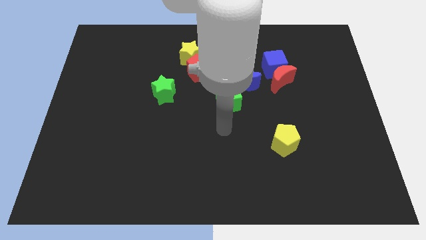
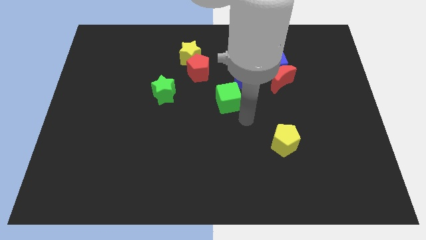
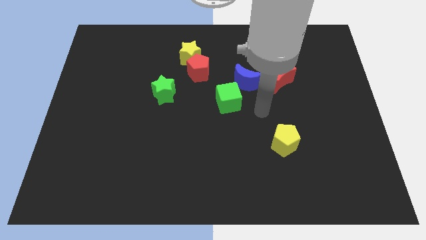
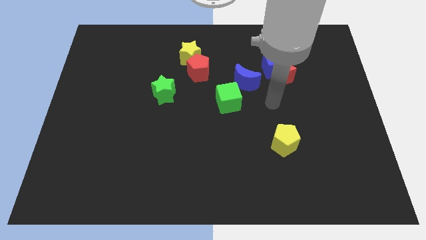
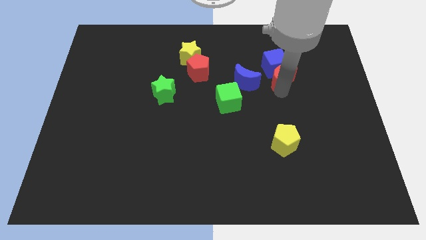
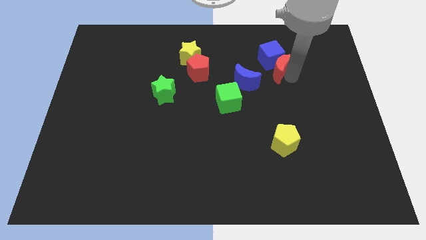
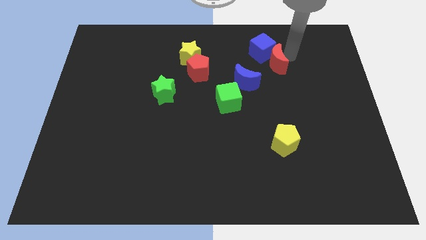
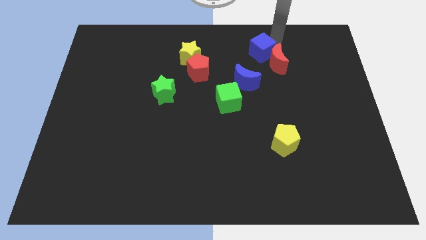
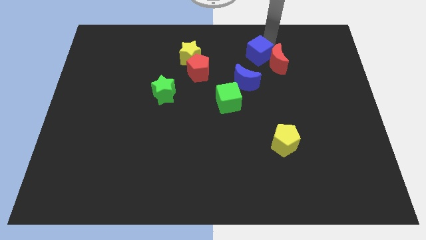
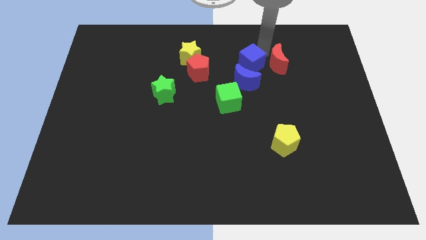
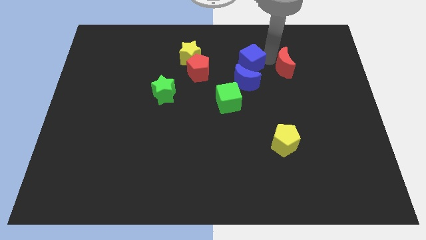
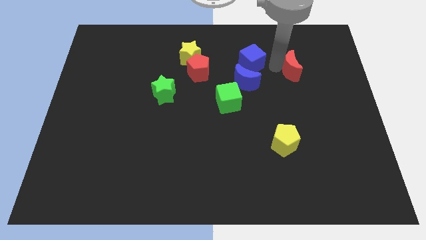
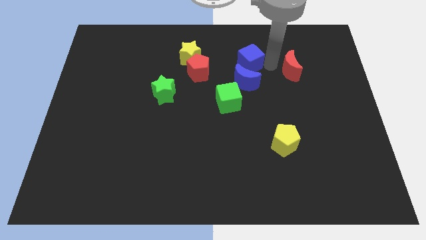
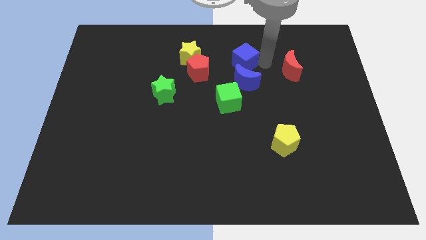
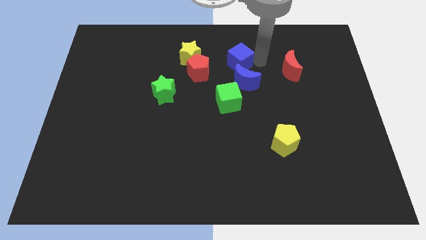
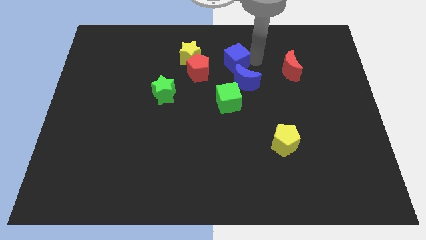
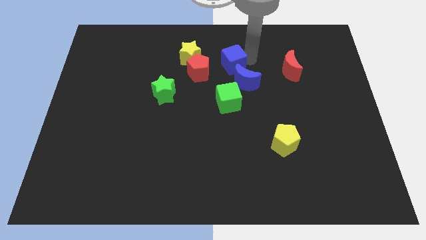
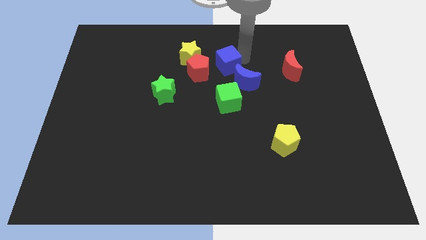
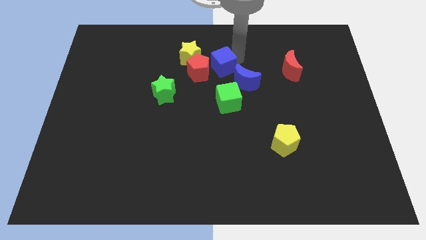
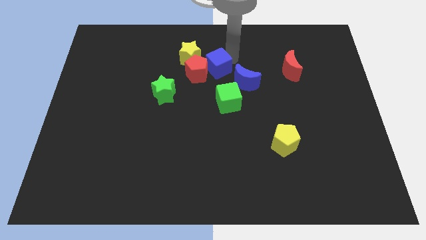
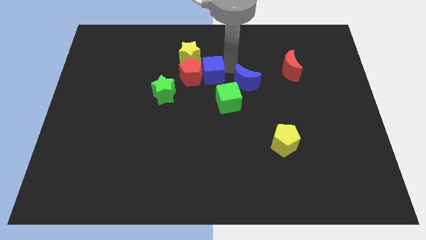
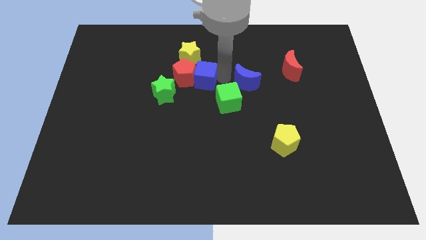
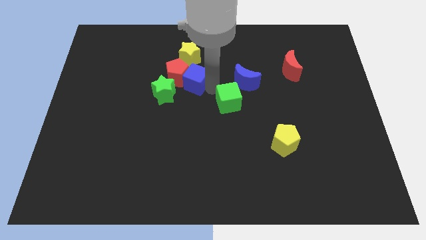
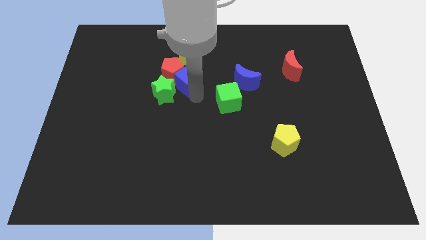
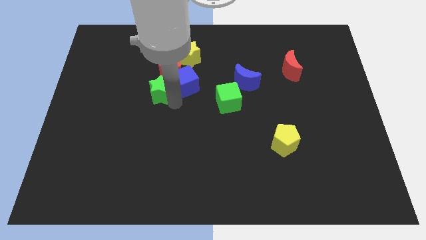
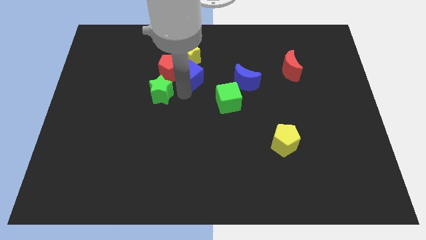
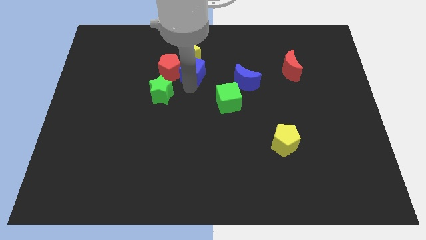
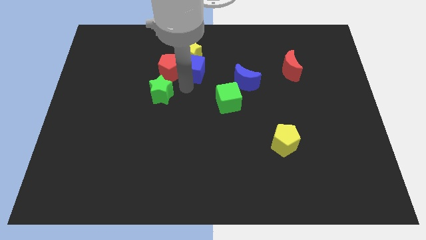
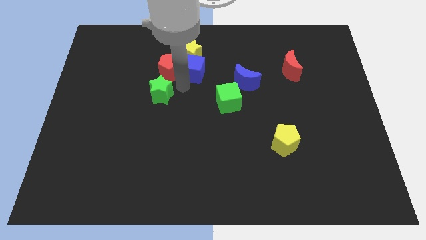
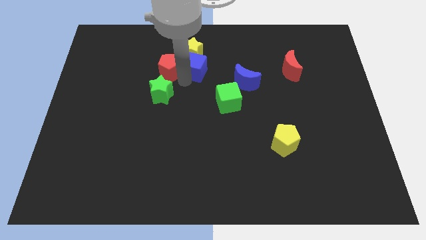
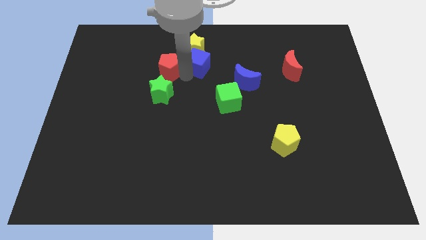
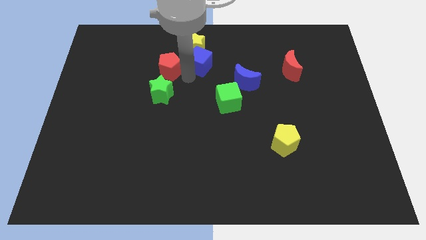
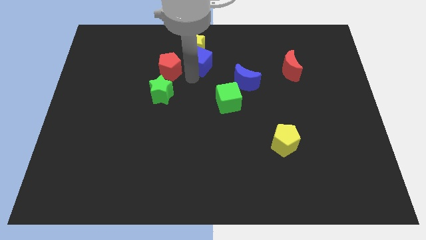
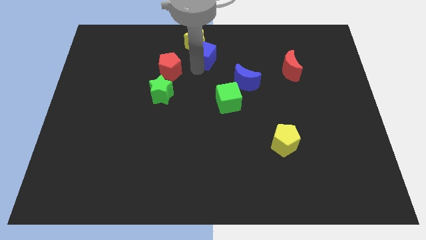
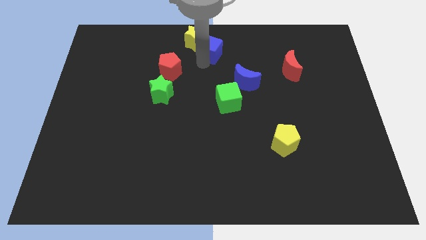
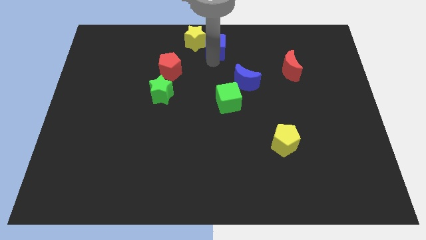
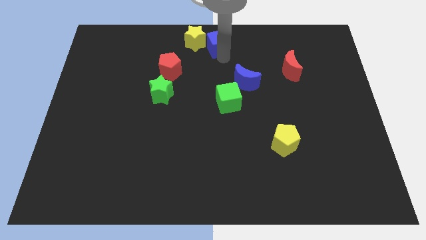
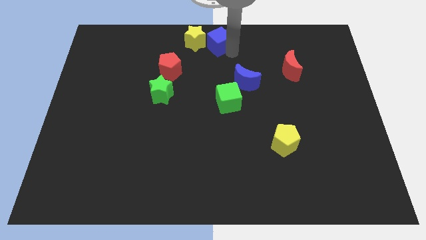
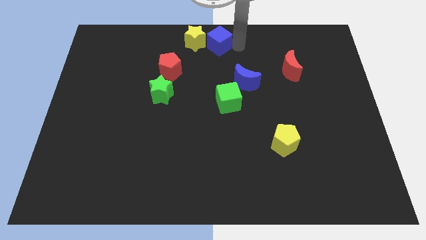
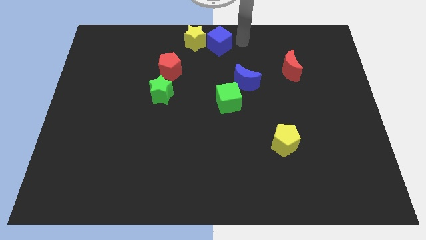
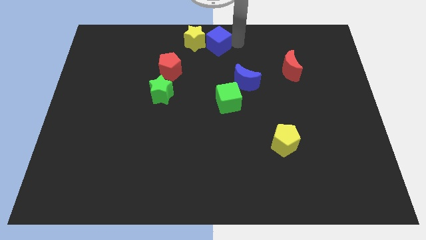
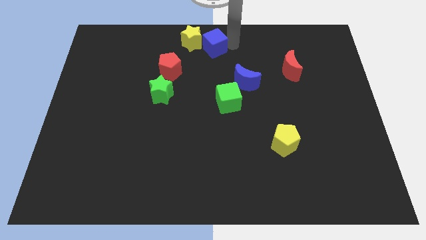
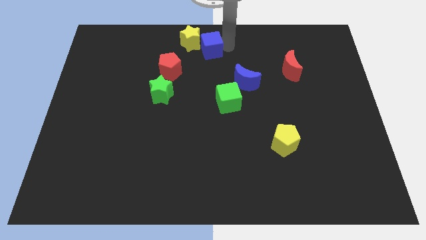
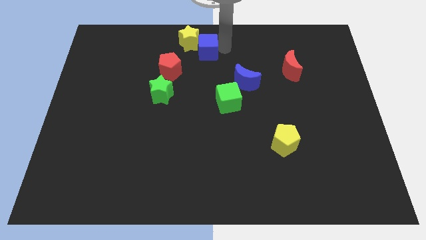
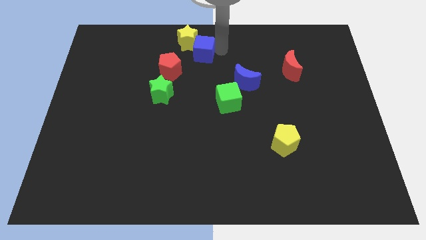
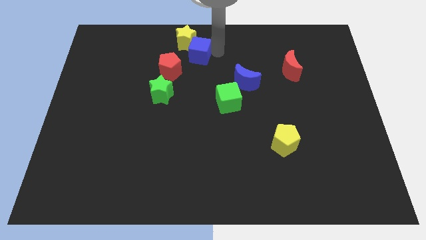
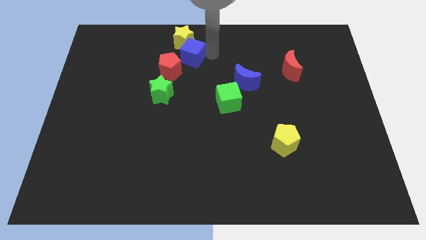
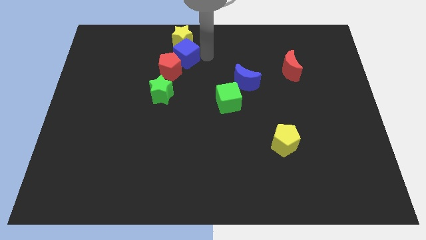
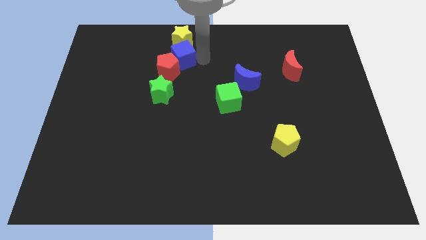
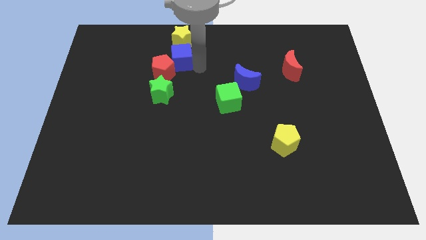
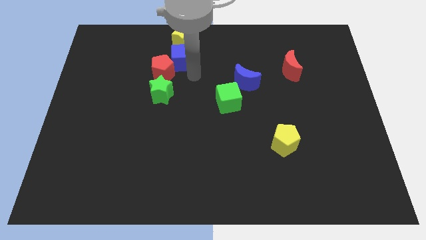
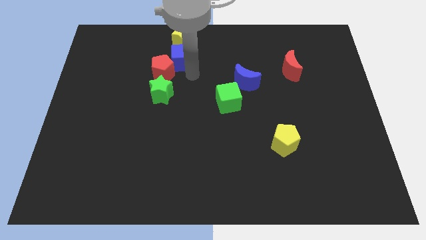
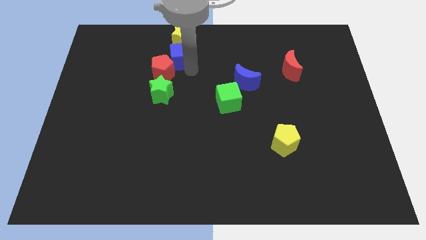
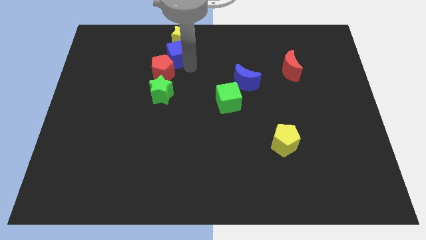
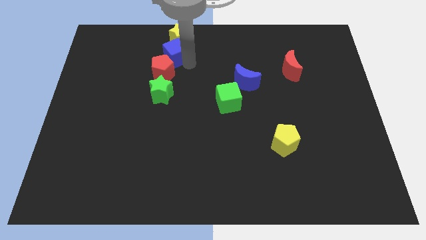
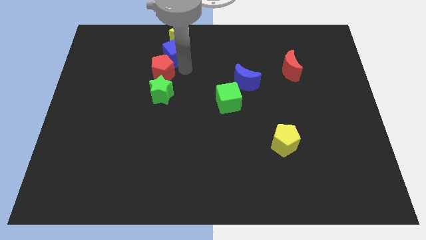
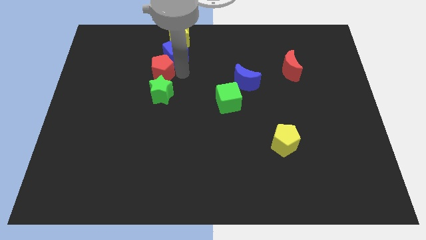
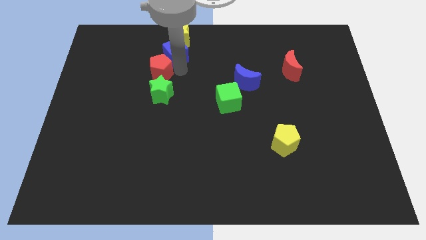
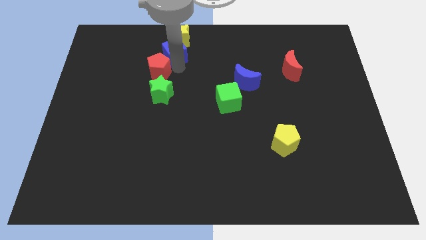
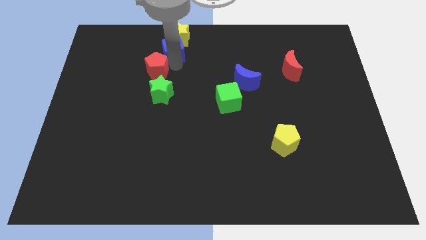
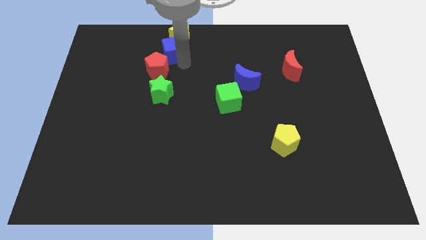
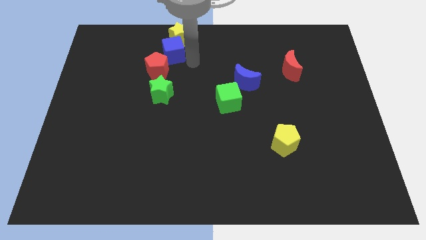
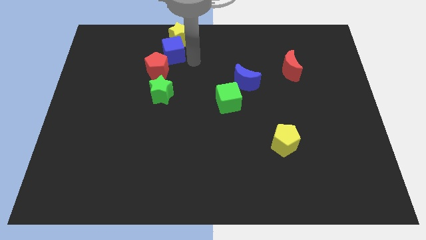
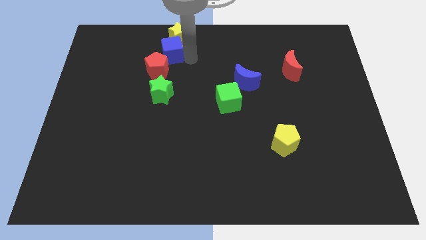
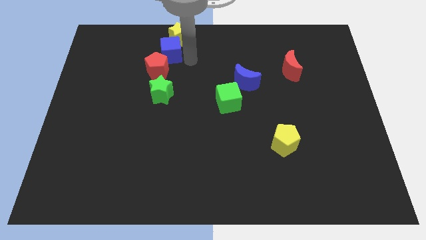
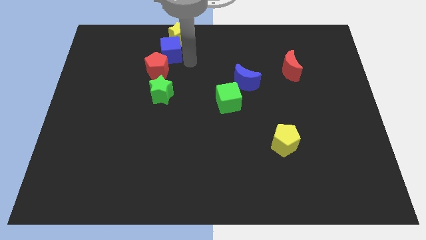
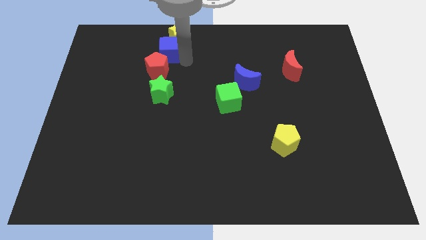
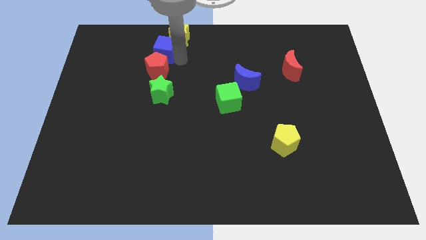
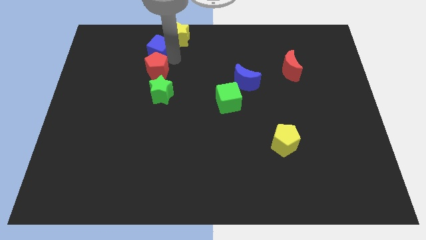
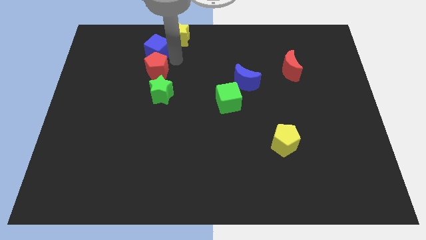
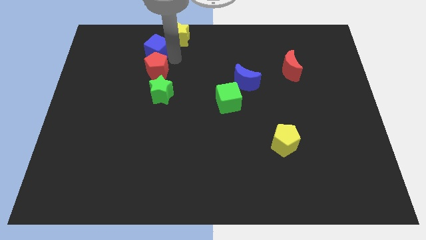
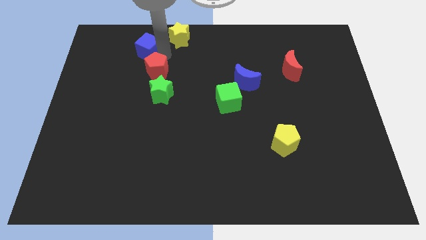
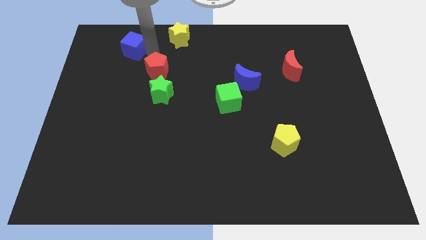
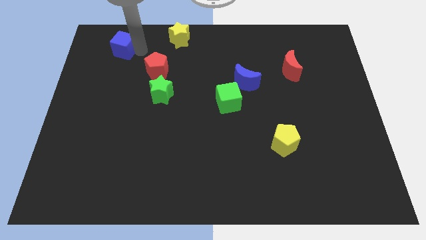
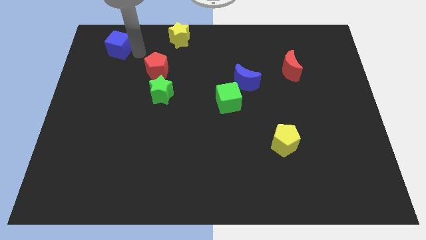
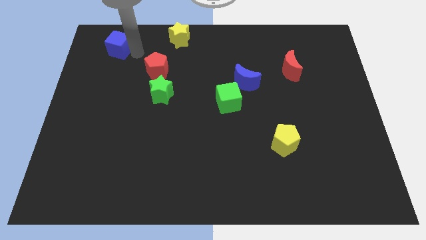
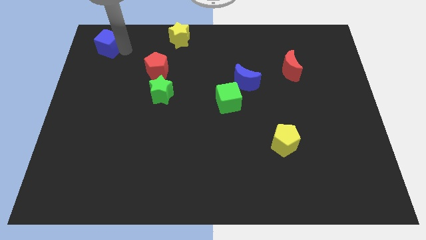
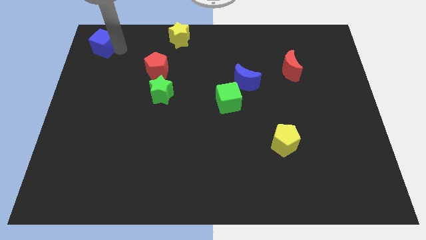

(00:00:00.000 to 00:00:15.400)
slide the blue cube to the top left of the board
